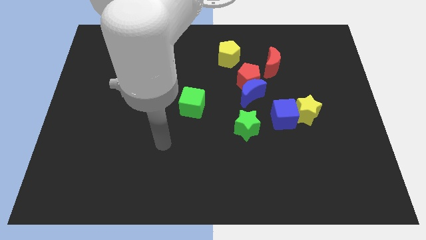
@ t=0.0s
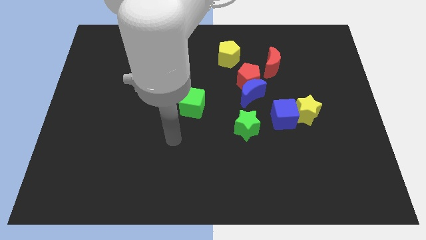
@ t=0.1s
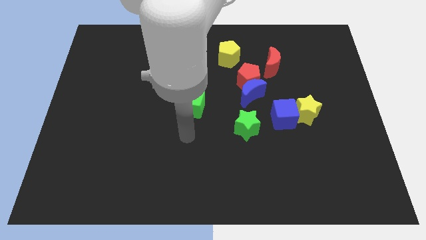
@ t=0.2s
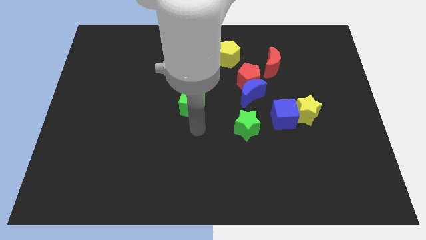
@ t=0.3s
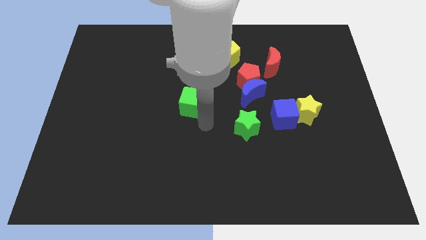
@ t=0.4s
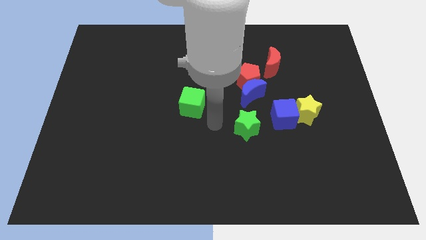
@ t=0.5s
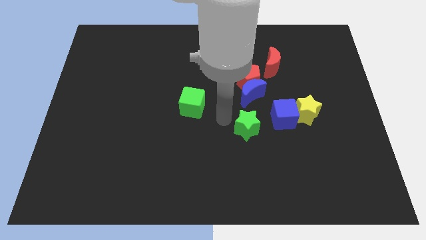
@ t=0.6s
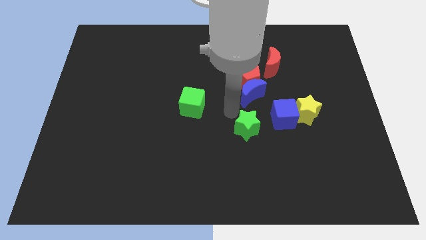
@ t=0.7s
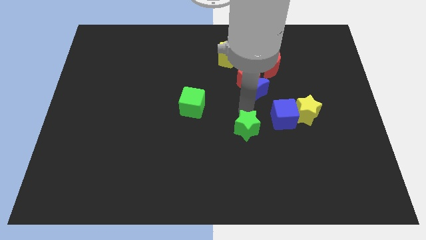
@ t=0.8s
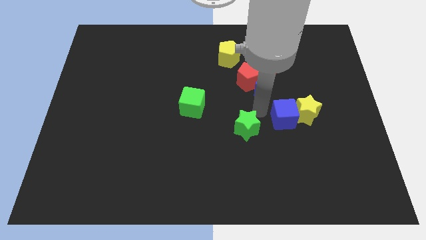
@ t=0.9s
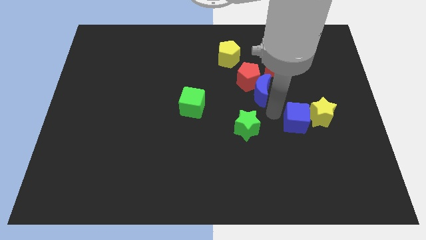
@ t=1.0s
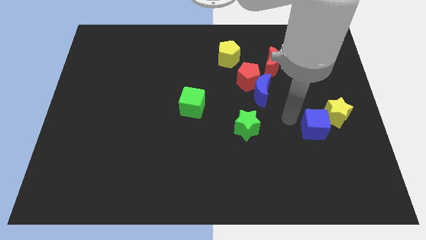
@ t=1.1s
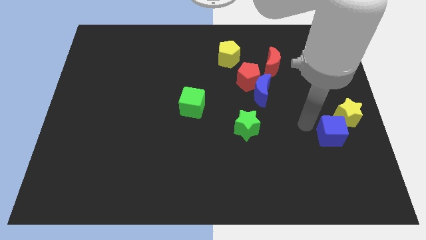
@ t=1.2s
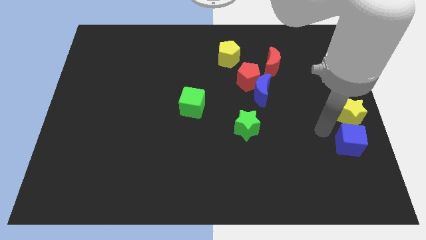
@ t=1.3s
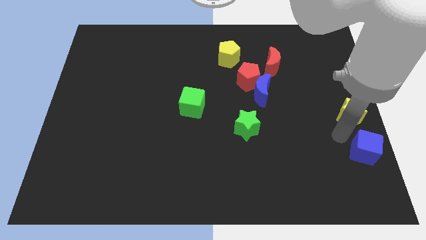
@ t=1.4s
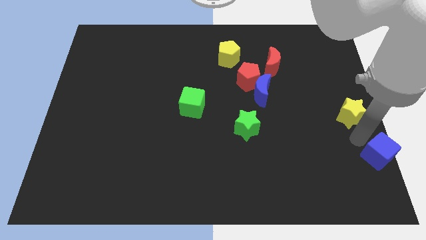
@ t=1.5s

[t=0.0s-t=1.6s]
pull the yellow star apart from the blue cube

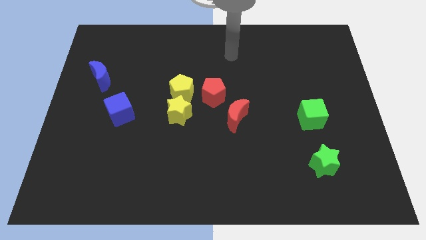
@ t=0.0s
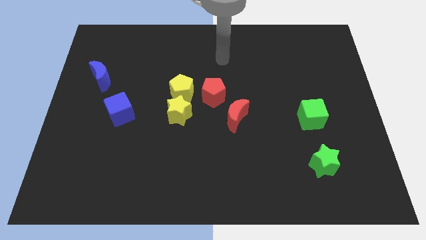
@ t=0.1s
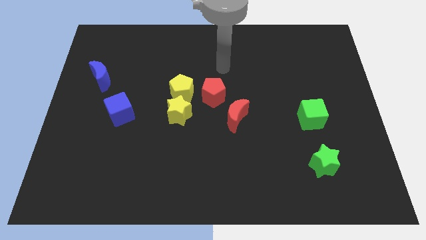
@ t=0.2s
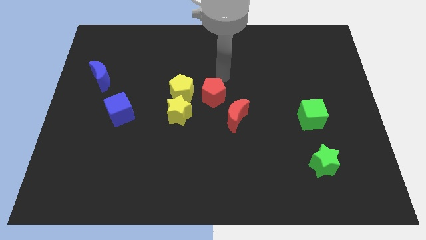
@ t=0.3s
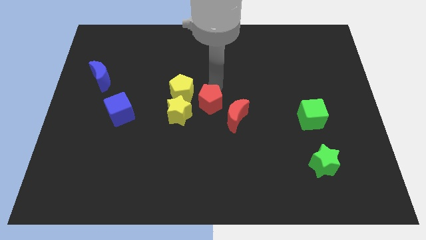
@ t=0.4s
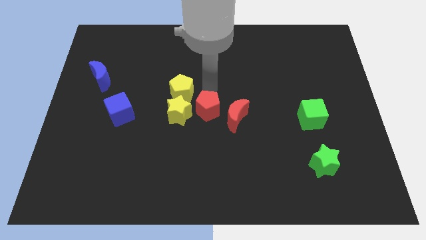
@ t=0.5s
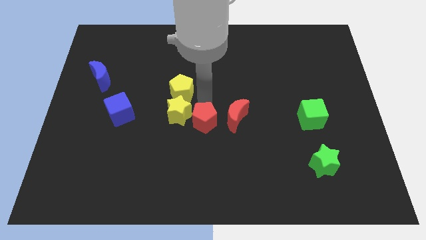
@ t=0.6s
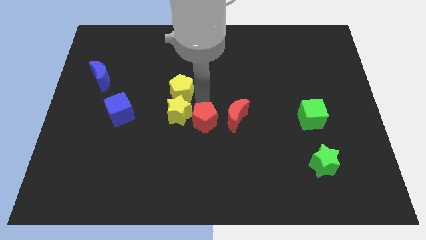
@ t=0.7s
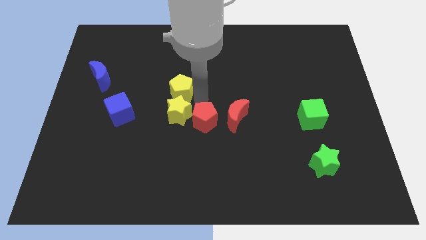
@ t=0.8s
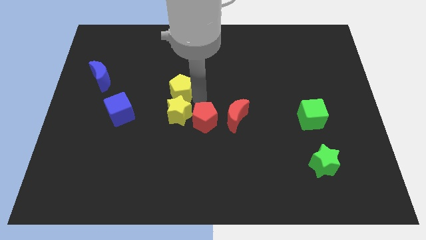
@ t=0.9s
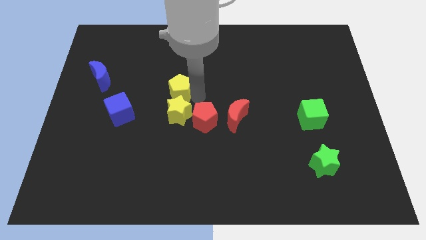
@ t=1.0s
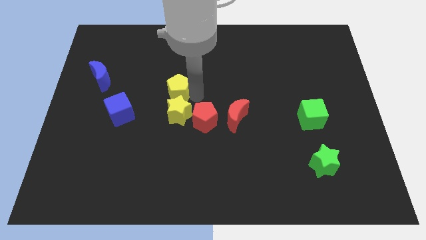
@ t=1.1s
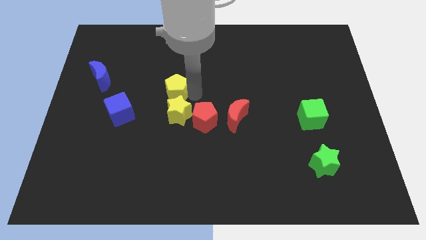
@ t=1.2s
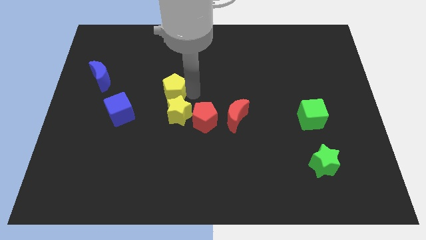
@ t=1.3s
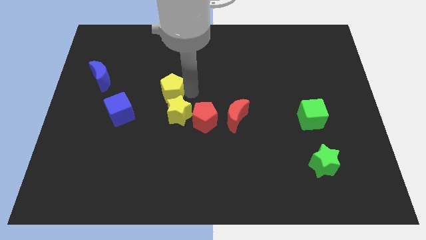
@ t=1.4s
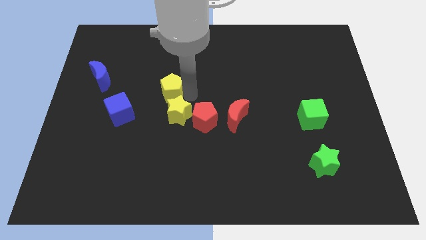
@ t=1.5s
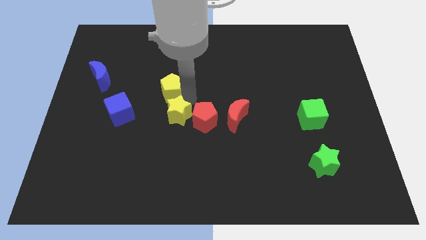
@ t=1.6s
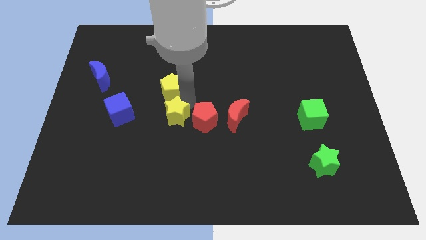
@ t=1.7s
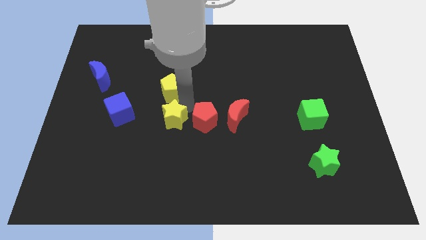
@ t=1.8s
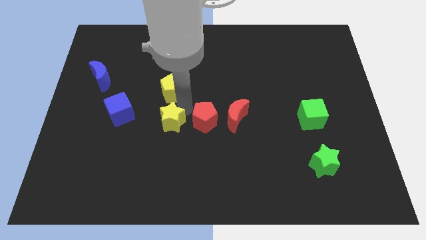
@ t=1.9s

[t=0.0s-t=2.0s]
pull the yellow pentagon apart from the yellow star and red pentagon

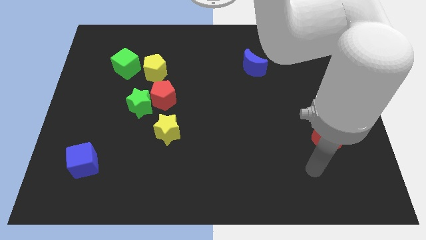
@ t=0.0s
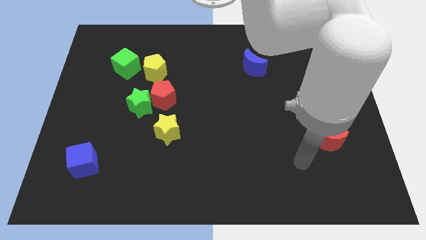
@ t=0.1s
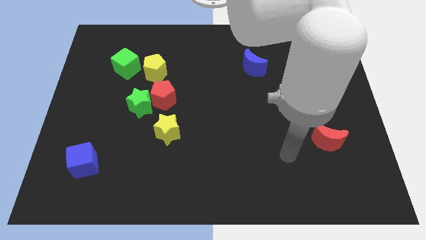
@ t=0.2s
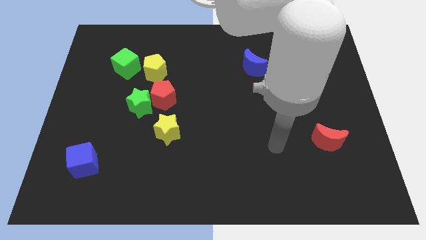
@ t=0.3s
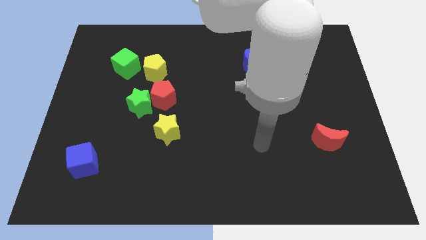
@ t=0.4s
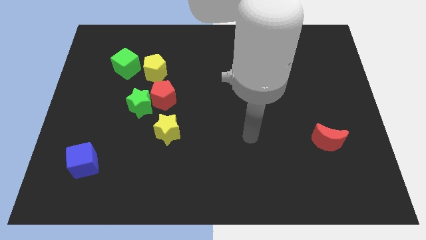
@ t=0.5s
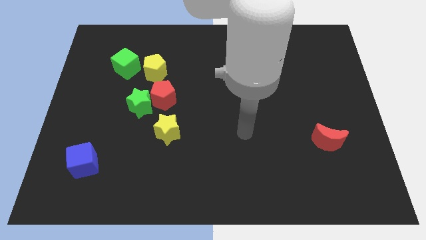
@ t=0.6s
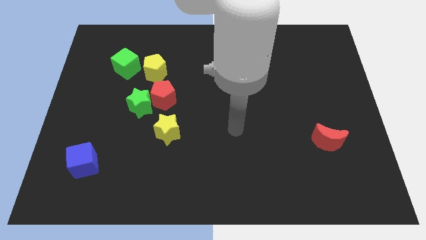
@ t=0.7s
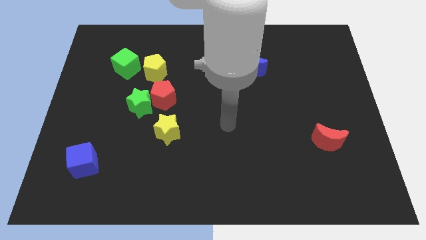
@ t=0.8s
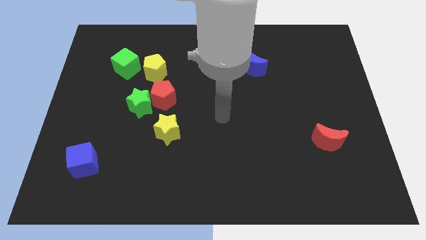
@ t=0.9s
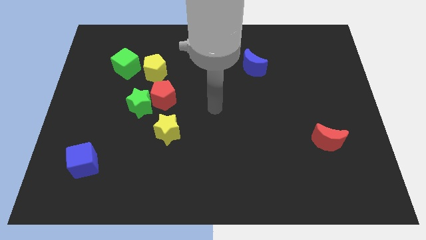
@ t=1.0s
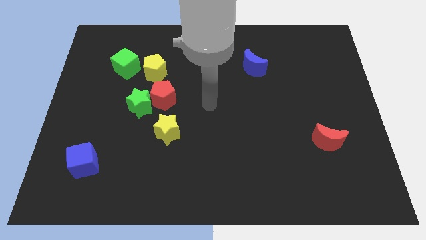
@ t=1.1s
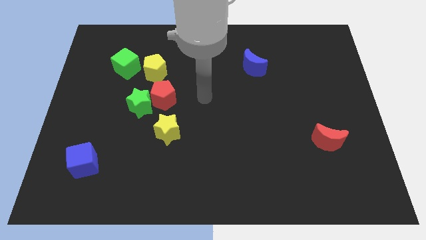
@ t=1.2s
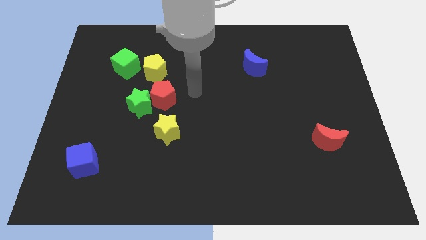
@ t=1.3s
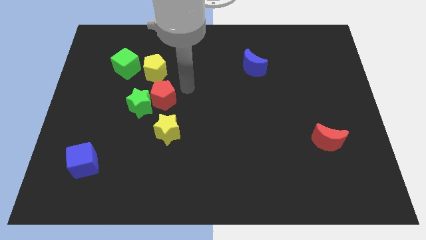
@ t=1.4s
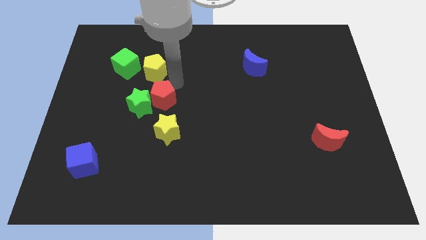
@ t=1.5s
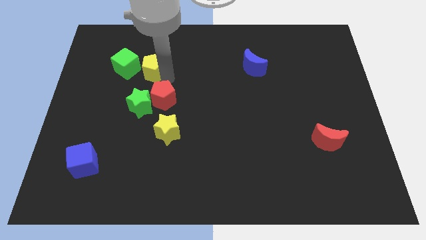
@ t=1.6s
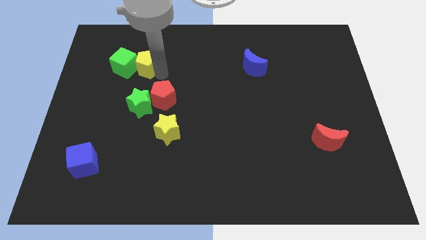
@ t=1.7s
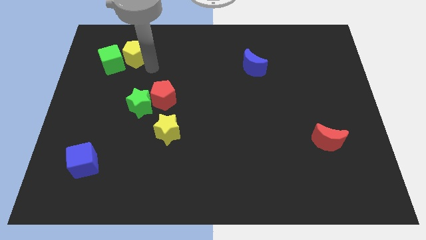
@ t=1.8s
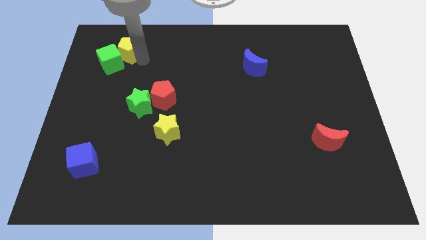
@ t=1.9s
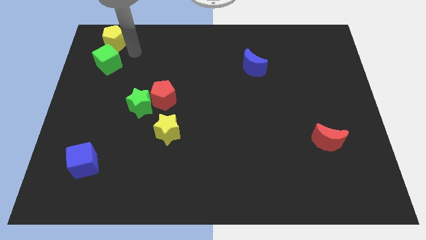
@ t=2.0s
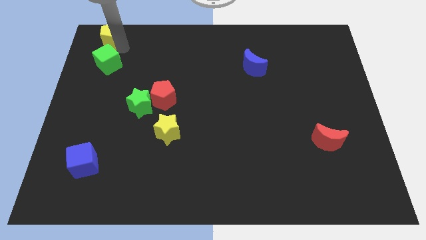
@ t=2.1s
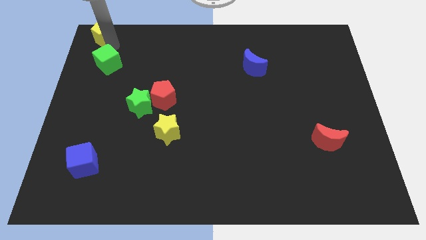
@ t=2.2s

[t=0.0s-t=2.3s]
move the green cube away from the yellow pentagon

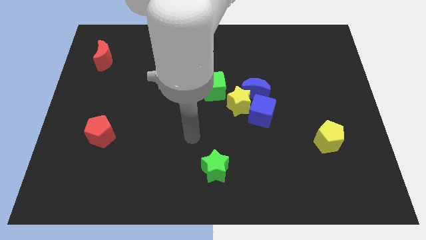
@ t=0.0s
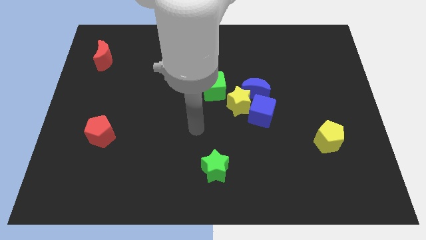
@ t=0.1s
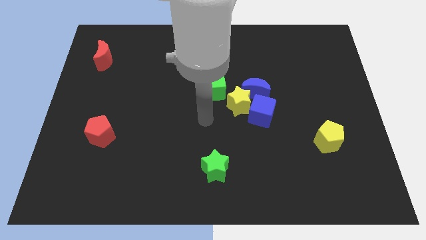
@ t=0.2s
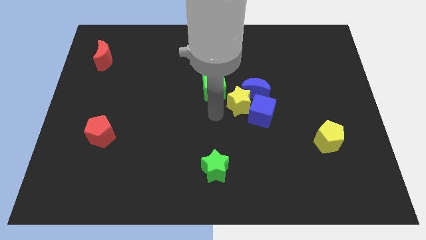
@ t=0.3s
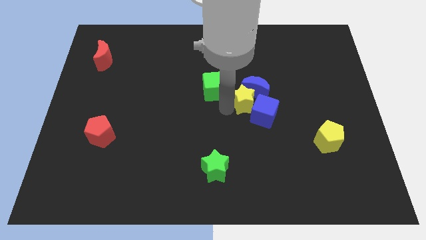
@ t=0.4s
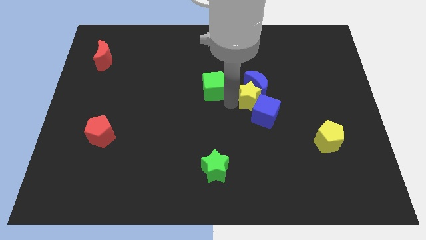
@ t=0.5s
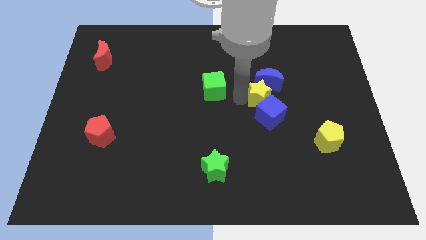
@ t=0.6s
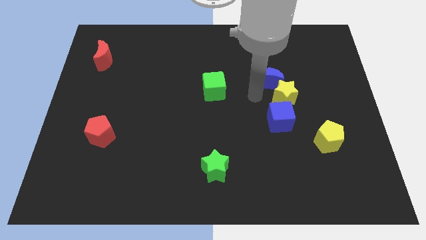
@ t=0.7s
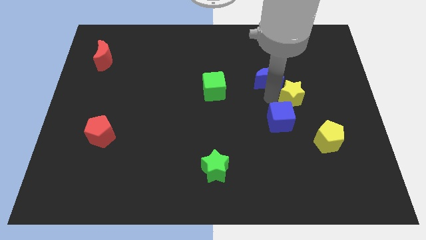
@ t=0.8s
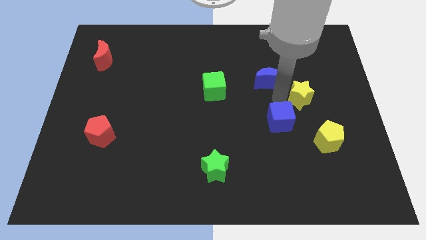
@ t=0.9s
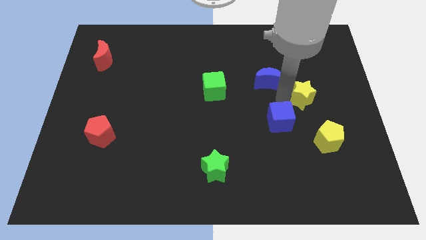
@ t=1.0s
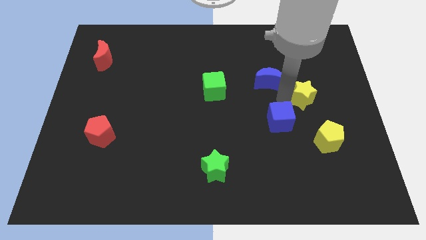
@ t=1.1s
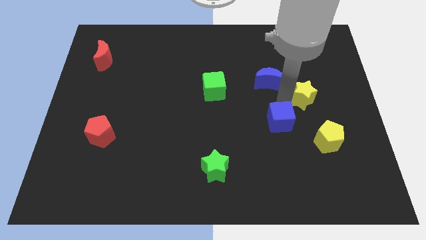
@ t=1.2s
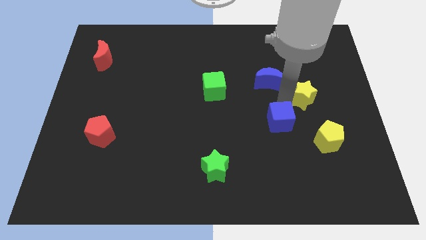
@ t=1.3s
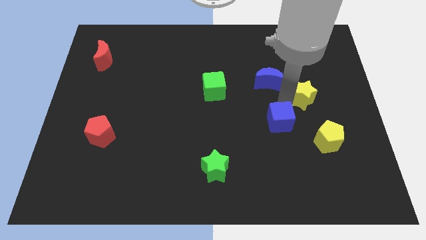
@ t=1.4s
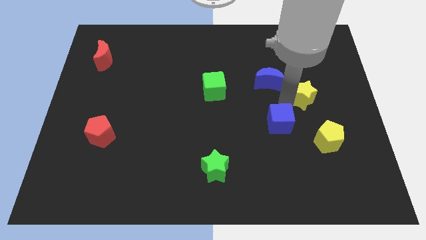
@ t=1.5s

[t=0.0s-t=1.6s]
separate the blue cube from the yellow star and blue moon

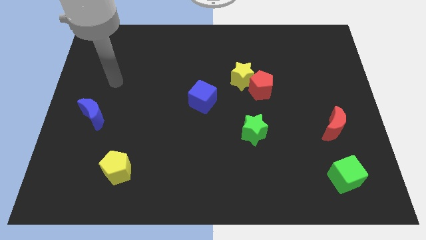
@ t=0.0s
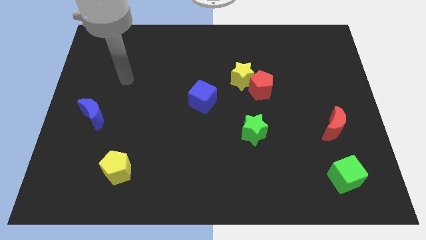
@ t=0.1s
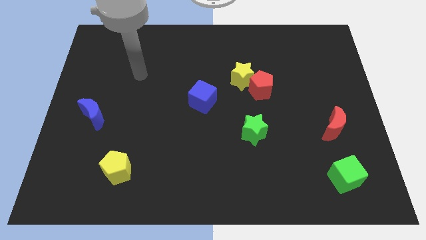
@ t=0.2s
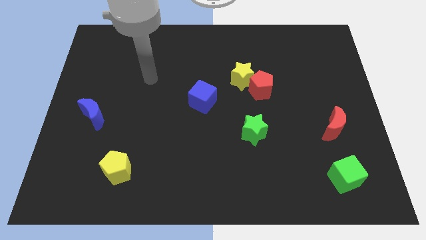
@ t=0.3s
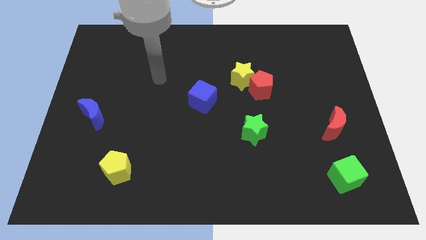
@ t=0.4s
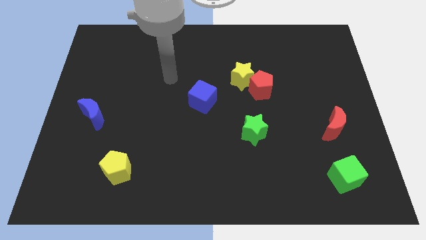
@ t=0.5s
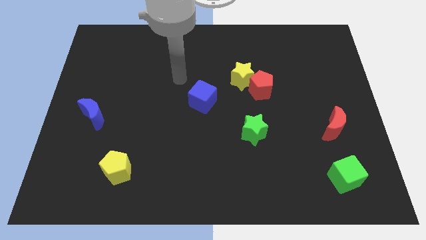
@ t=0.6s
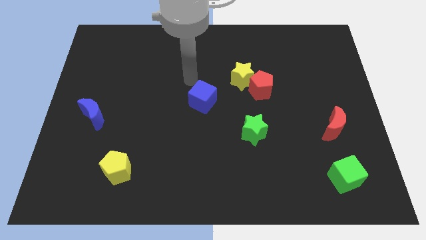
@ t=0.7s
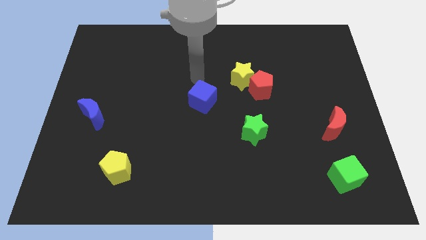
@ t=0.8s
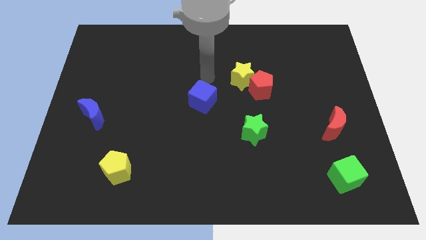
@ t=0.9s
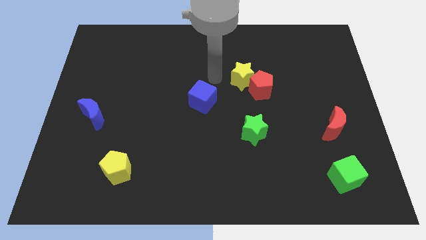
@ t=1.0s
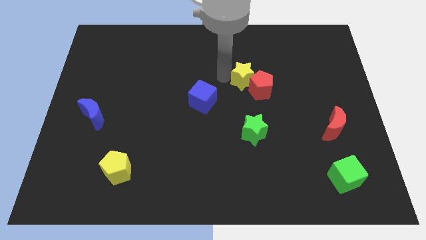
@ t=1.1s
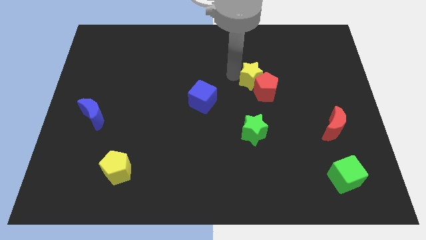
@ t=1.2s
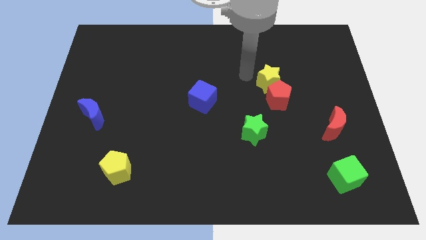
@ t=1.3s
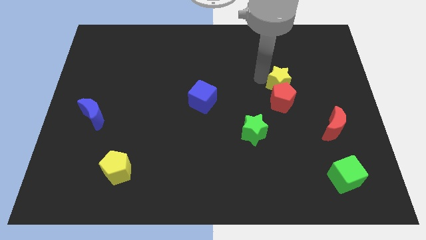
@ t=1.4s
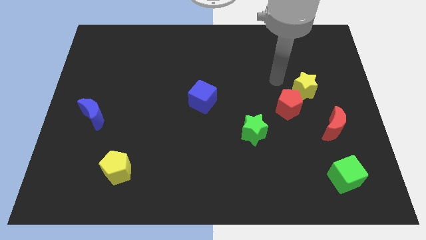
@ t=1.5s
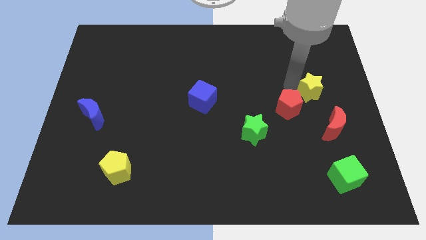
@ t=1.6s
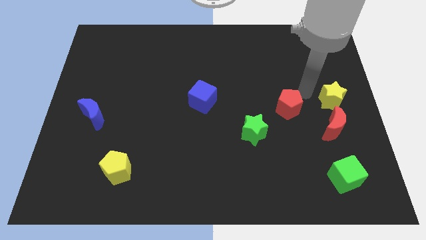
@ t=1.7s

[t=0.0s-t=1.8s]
move the red pentagon away from the yellow star
